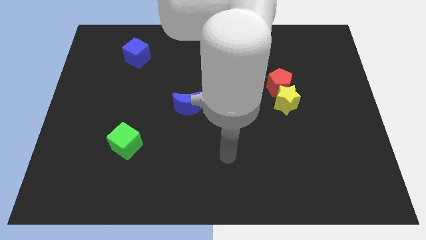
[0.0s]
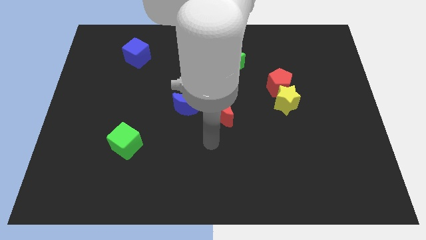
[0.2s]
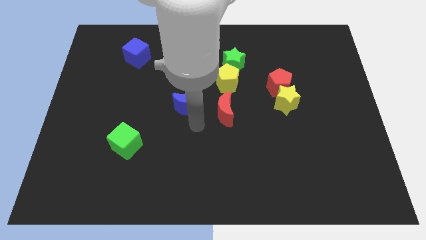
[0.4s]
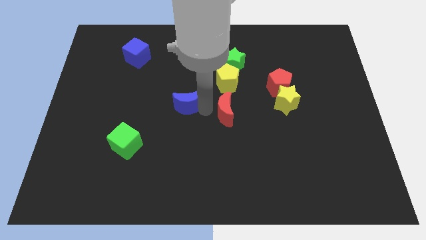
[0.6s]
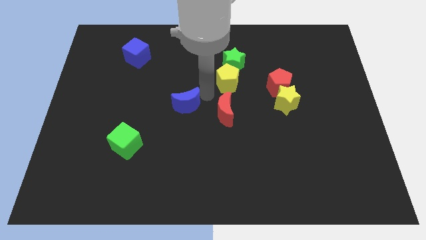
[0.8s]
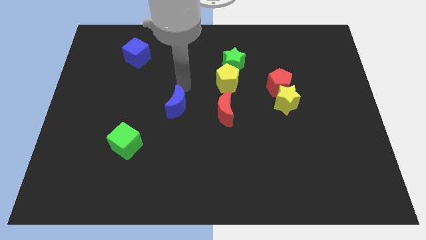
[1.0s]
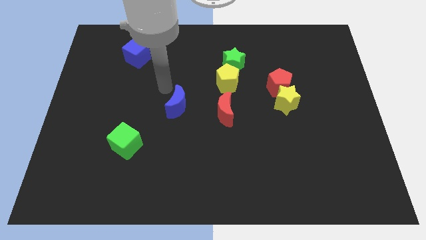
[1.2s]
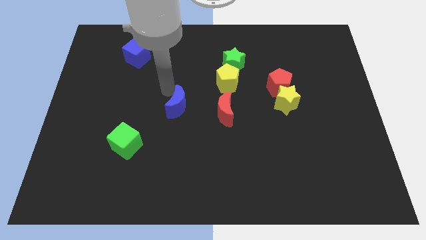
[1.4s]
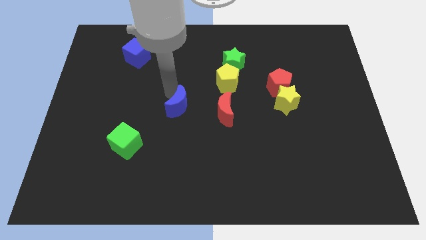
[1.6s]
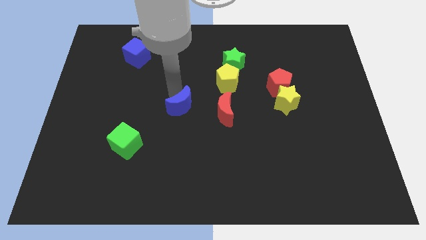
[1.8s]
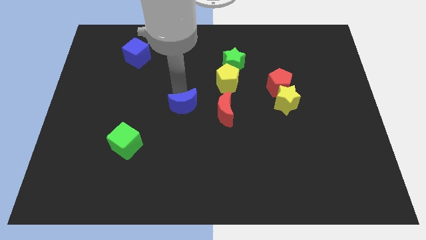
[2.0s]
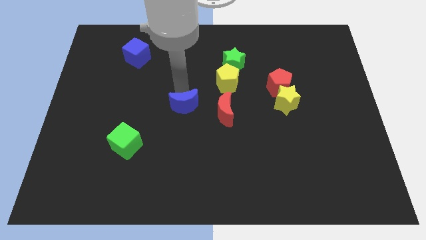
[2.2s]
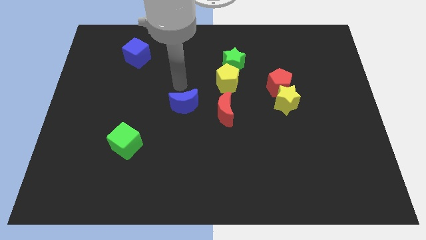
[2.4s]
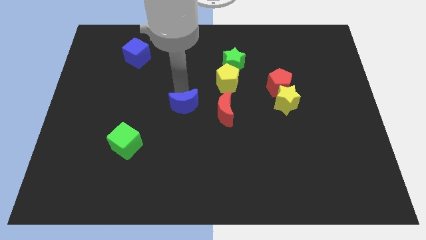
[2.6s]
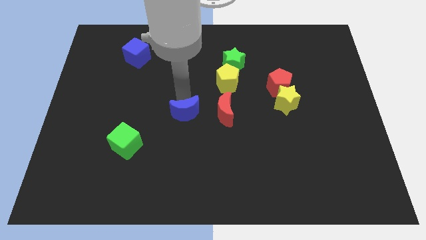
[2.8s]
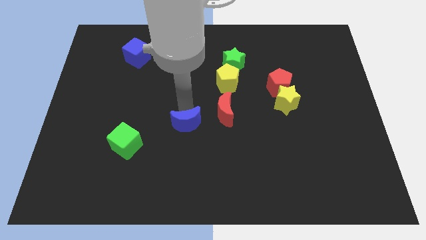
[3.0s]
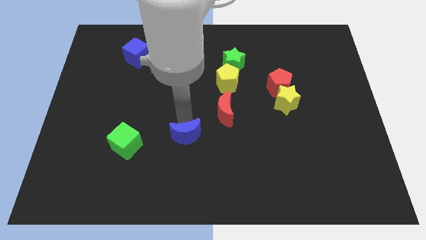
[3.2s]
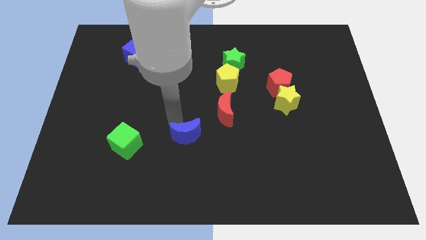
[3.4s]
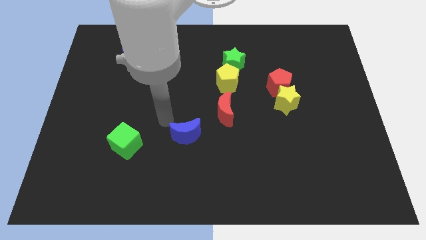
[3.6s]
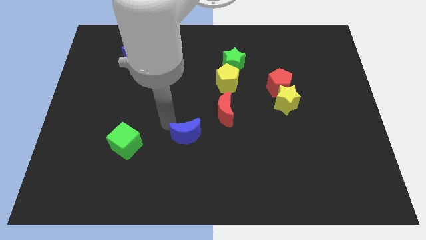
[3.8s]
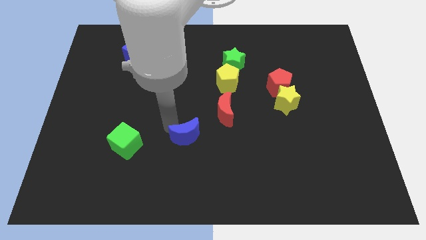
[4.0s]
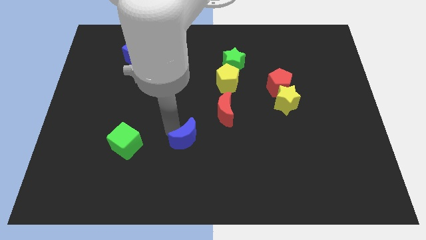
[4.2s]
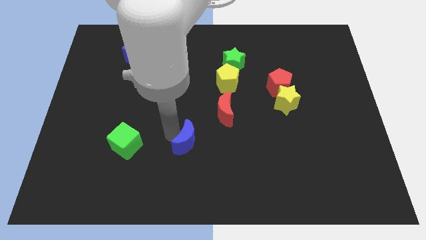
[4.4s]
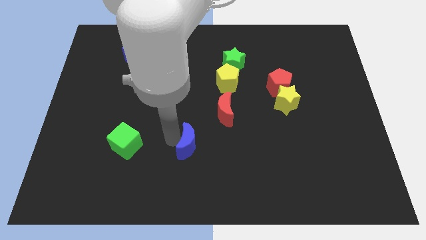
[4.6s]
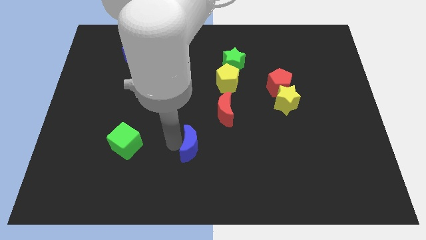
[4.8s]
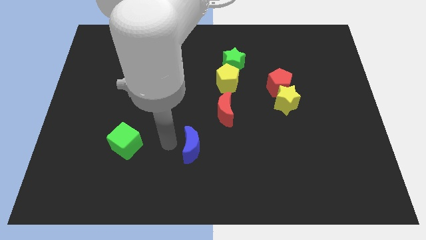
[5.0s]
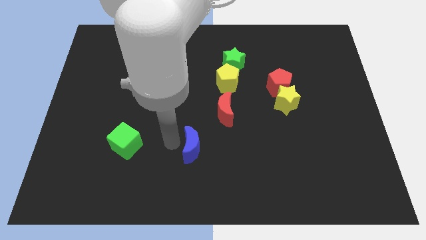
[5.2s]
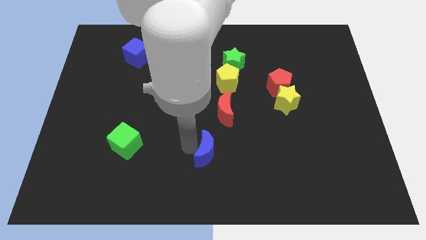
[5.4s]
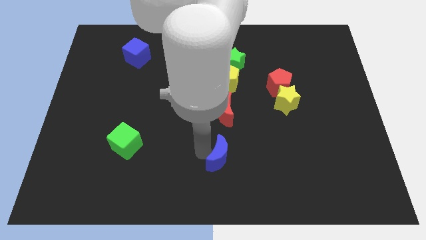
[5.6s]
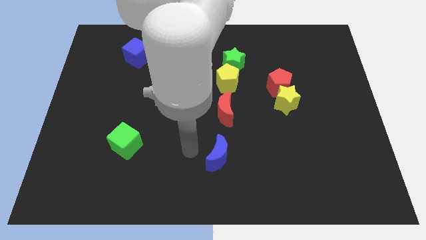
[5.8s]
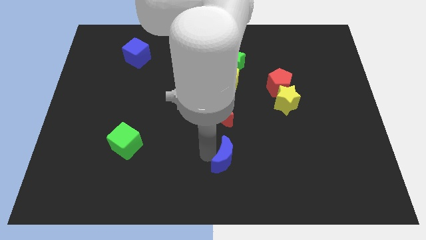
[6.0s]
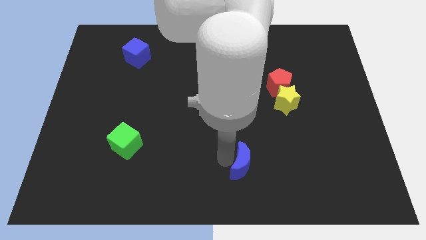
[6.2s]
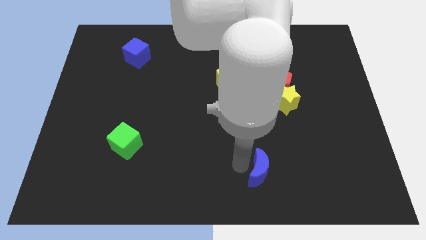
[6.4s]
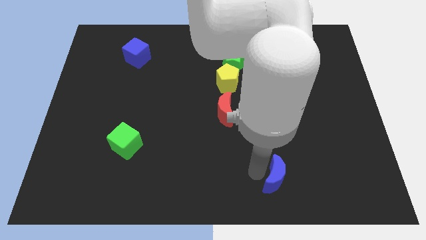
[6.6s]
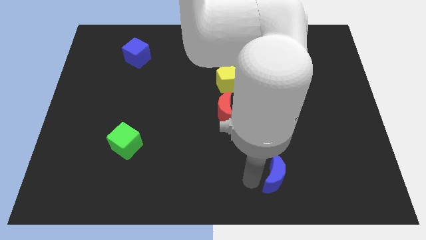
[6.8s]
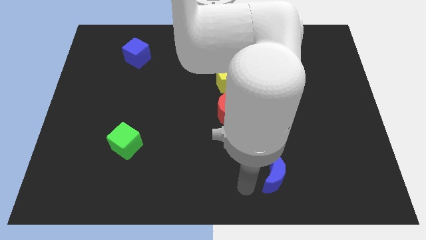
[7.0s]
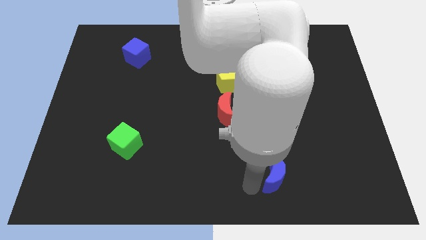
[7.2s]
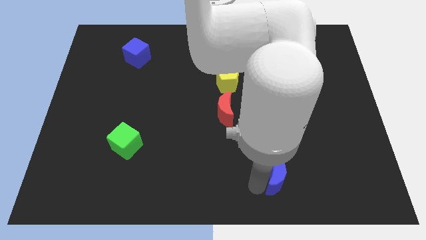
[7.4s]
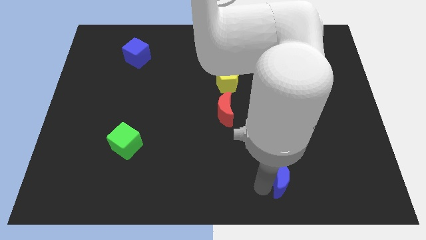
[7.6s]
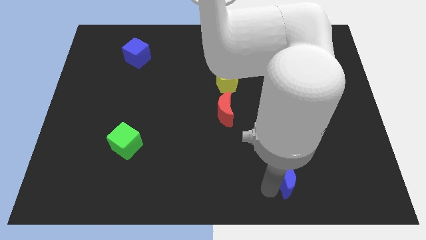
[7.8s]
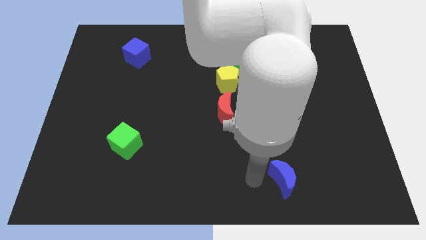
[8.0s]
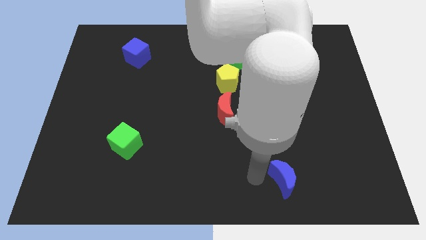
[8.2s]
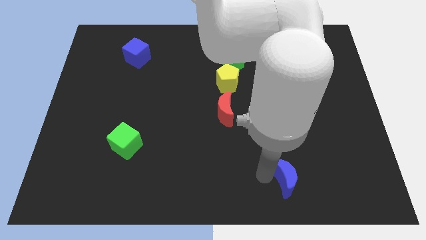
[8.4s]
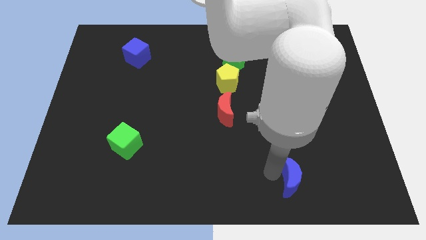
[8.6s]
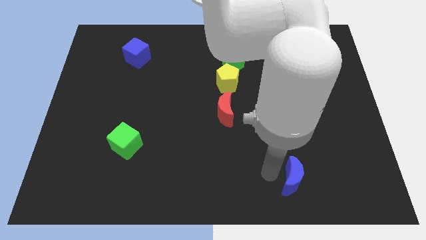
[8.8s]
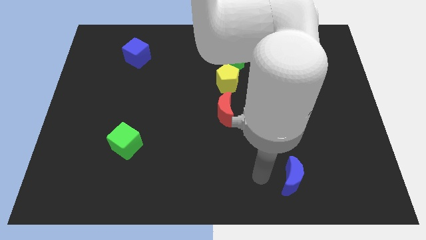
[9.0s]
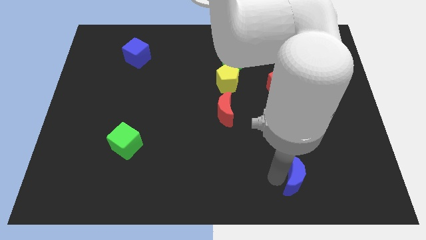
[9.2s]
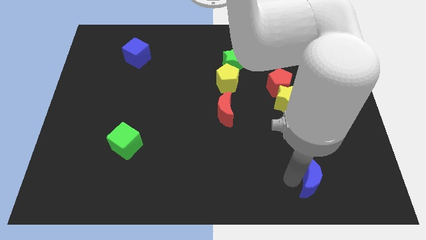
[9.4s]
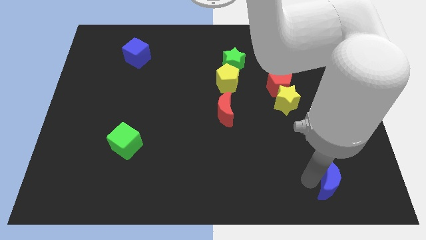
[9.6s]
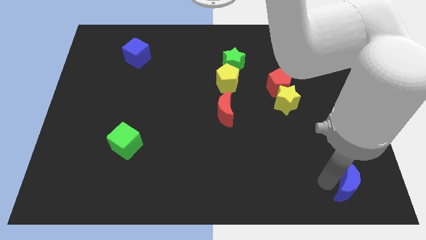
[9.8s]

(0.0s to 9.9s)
slide the blue moon to the bottom right corner

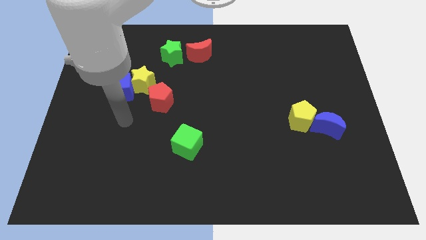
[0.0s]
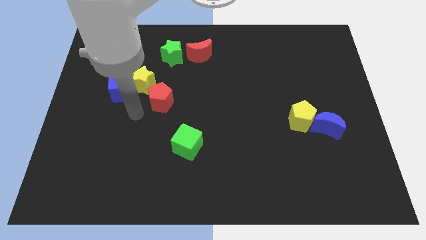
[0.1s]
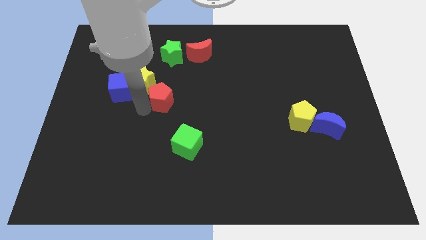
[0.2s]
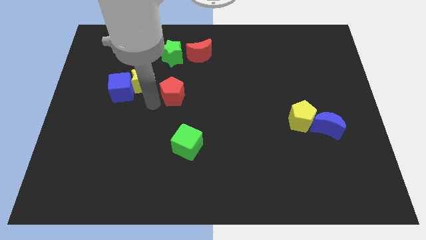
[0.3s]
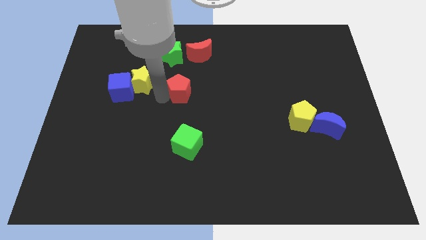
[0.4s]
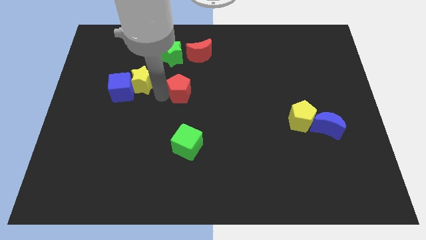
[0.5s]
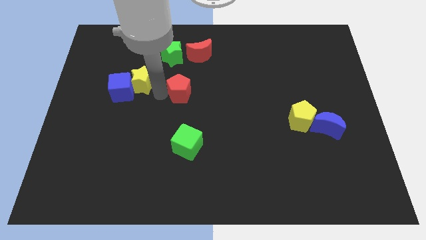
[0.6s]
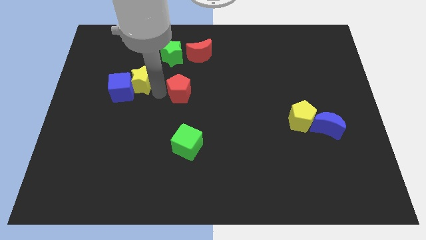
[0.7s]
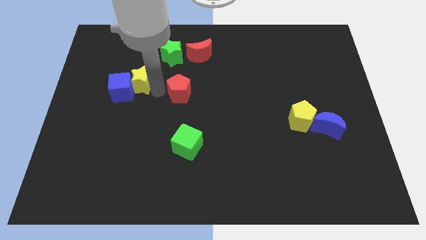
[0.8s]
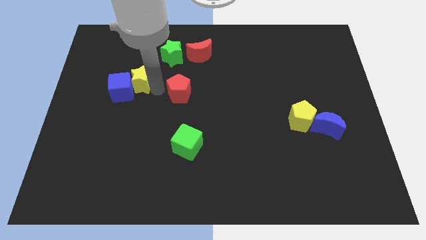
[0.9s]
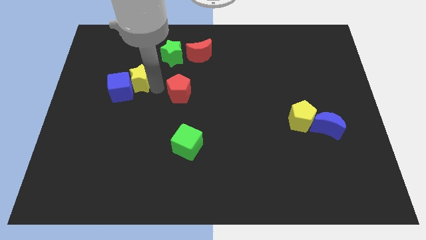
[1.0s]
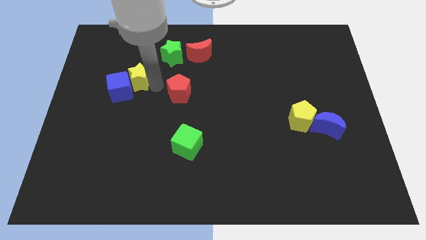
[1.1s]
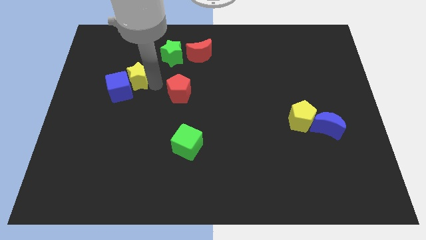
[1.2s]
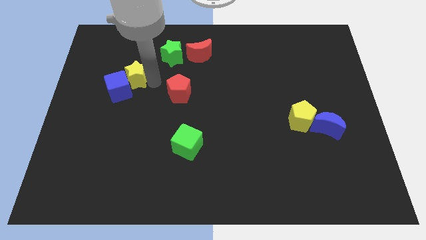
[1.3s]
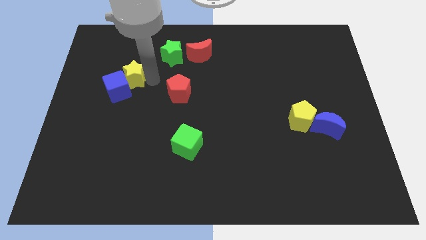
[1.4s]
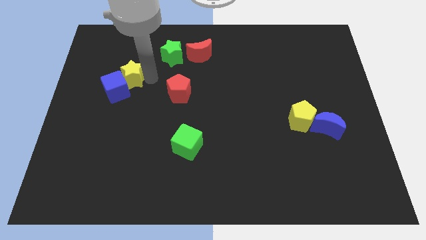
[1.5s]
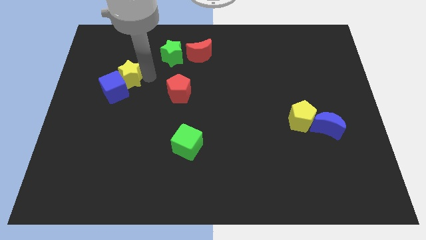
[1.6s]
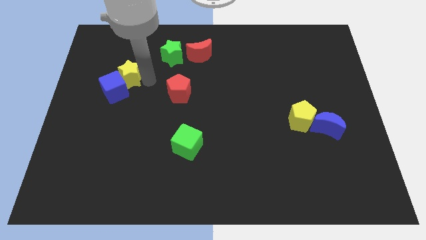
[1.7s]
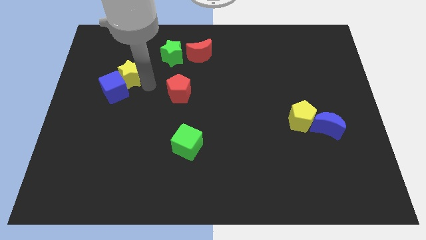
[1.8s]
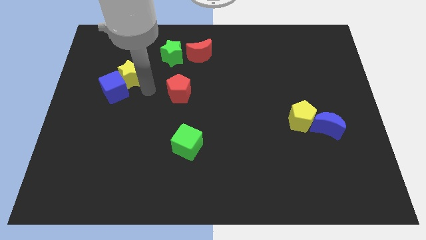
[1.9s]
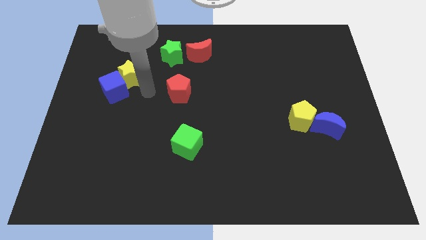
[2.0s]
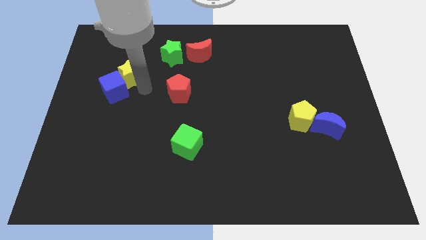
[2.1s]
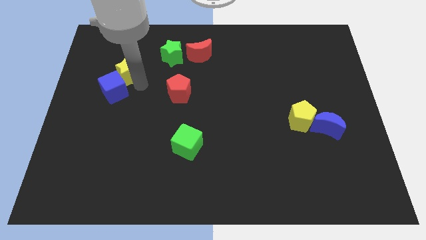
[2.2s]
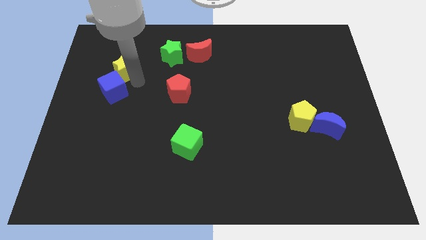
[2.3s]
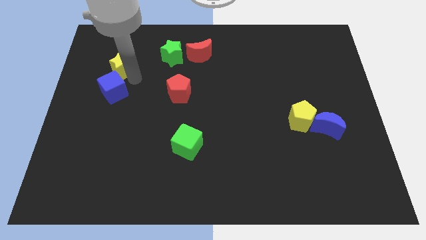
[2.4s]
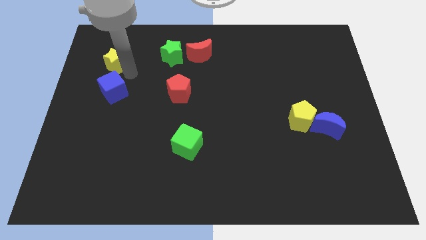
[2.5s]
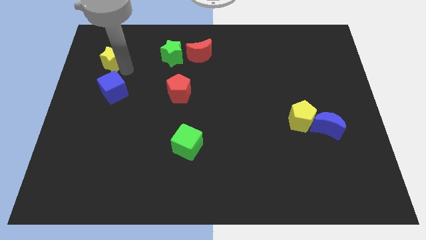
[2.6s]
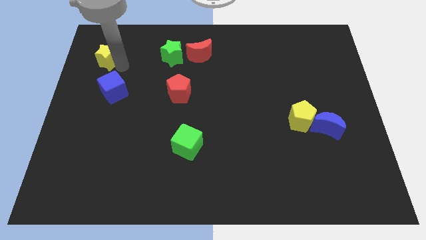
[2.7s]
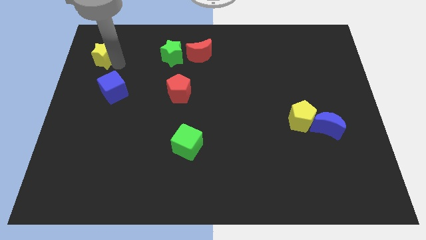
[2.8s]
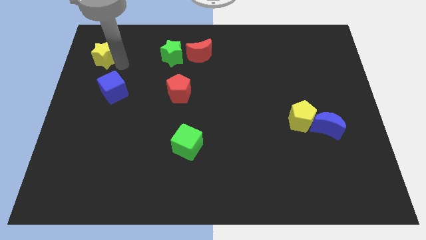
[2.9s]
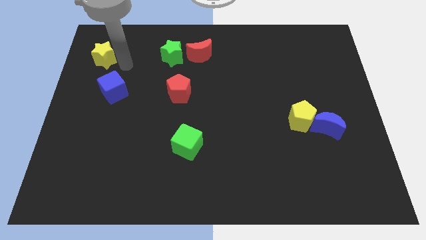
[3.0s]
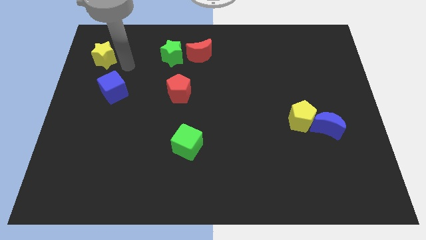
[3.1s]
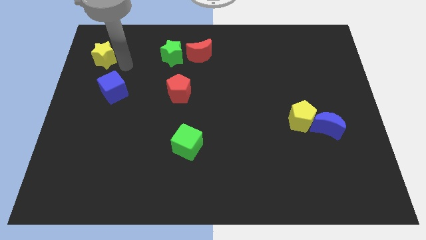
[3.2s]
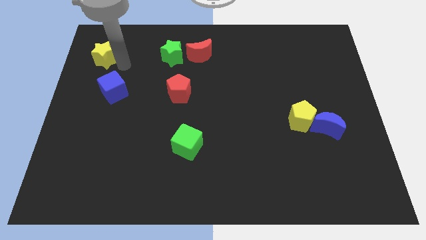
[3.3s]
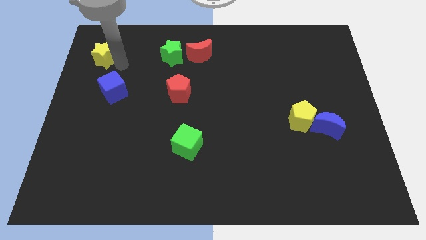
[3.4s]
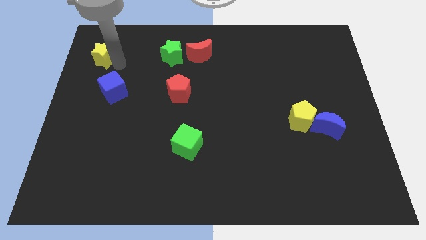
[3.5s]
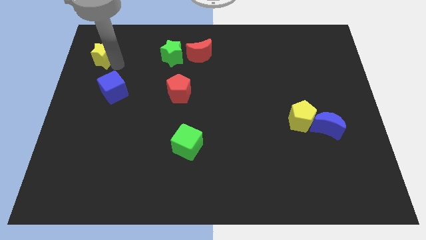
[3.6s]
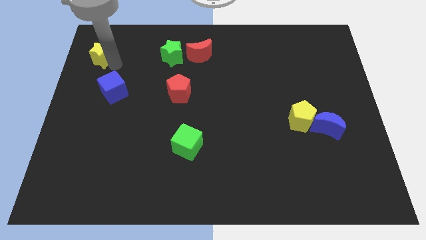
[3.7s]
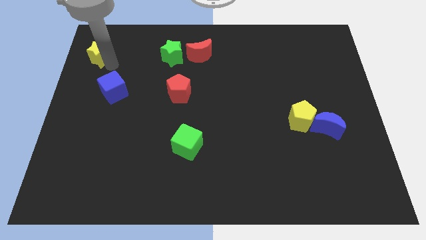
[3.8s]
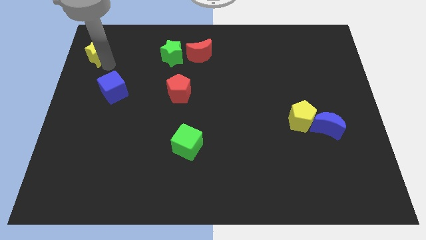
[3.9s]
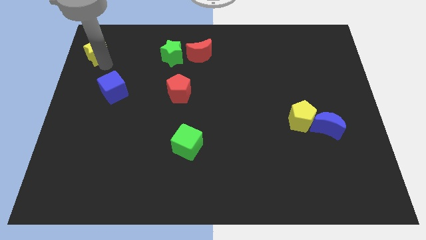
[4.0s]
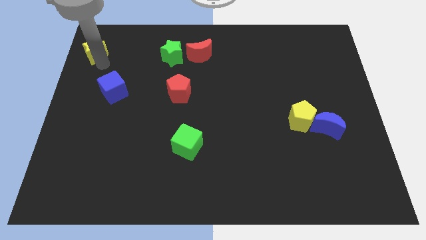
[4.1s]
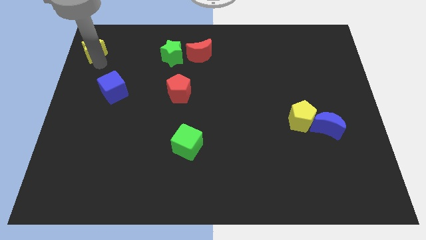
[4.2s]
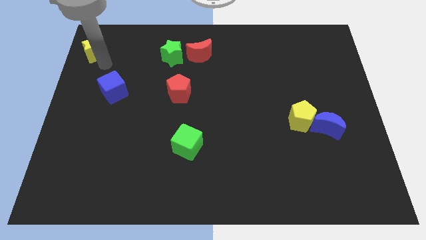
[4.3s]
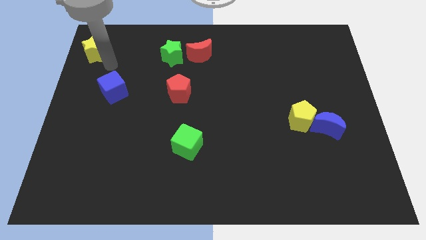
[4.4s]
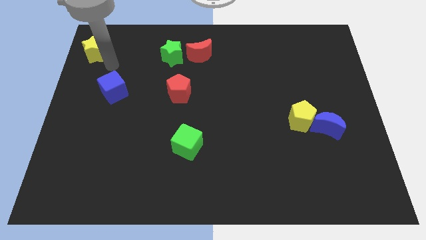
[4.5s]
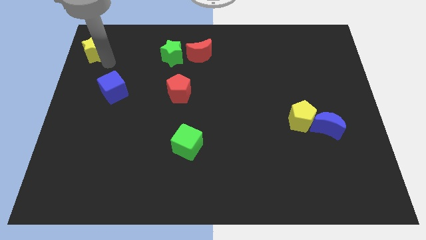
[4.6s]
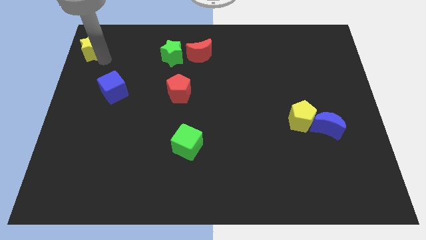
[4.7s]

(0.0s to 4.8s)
move the yellow star to the top left
